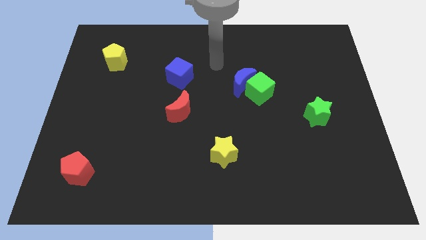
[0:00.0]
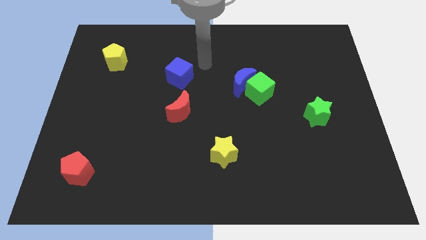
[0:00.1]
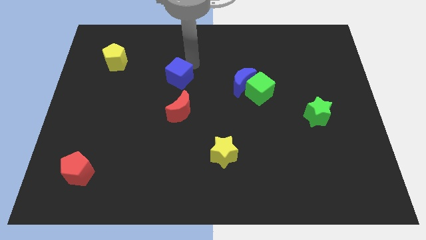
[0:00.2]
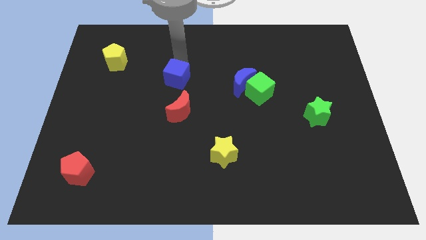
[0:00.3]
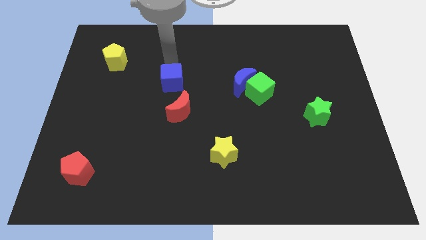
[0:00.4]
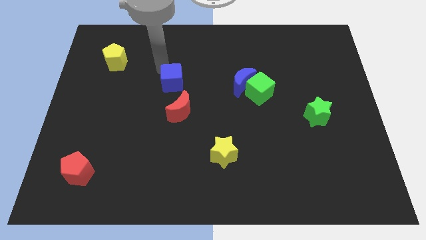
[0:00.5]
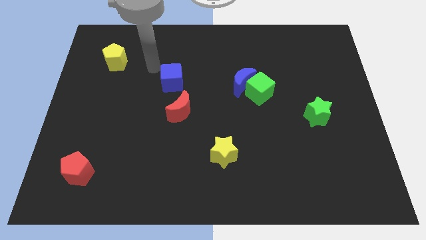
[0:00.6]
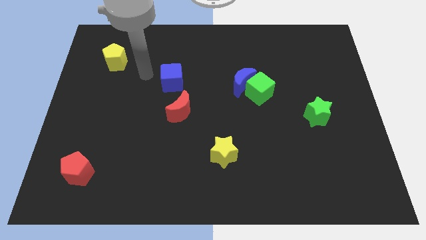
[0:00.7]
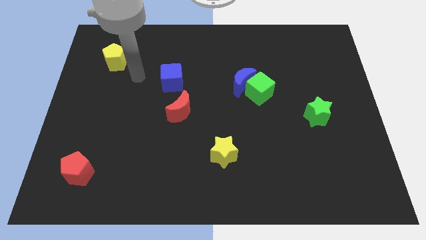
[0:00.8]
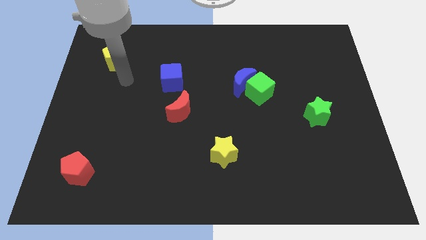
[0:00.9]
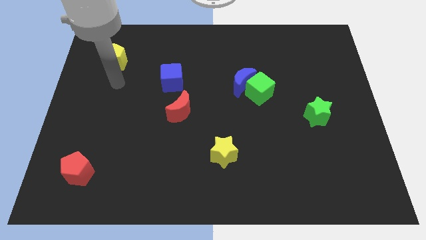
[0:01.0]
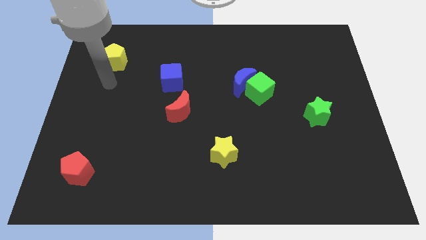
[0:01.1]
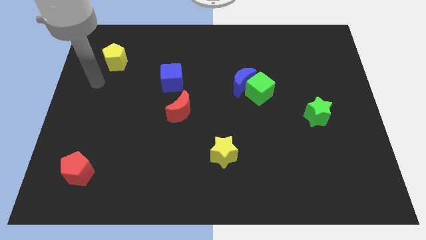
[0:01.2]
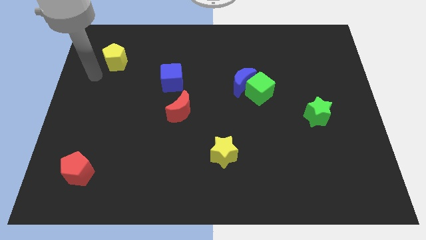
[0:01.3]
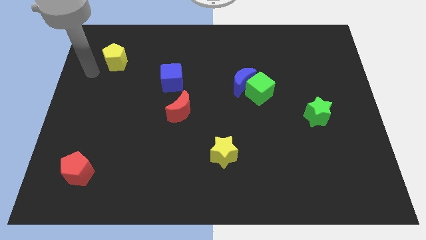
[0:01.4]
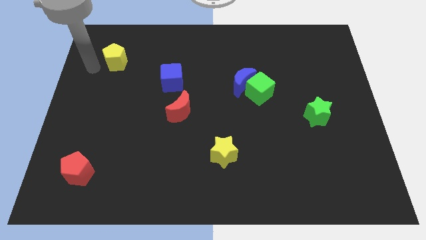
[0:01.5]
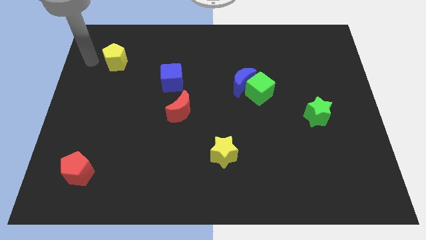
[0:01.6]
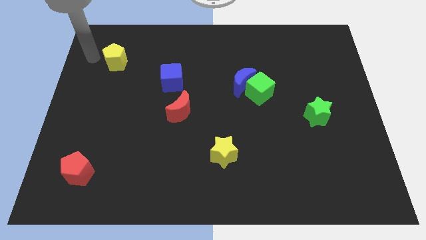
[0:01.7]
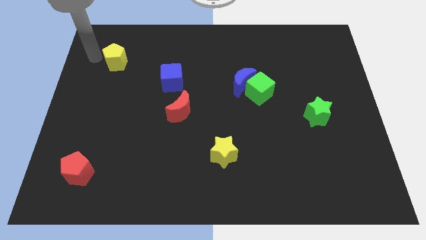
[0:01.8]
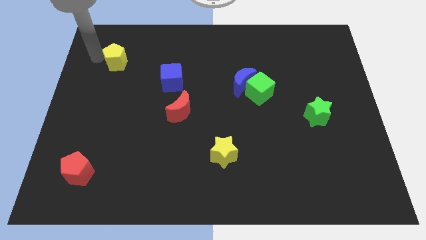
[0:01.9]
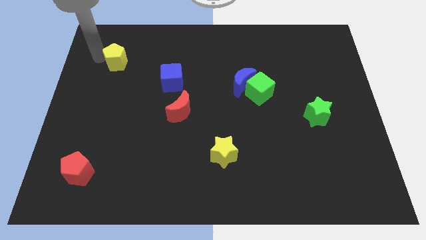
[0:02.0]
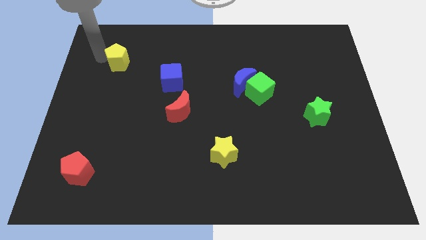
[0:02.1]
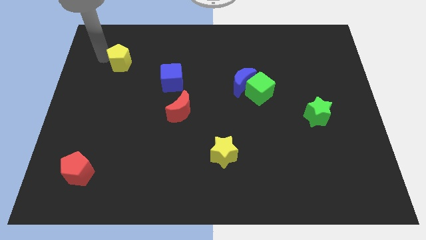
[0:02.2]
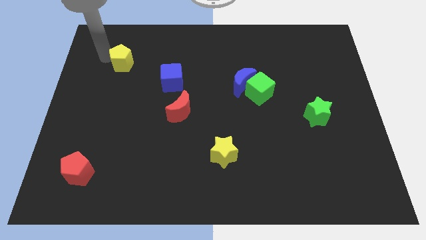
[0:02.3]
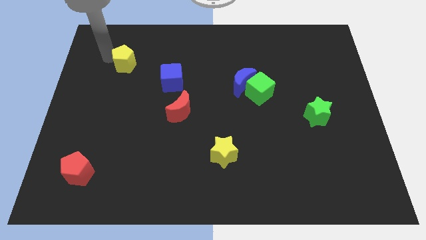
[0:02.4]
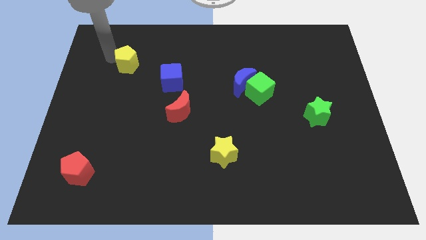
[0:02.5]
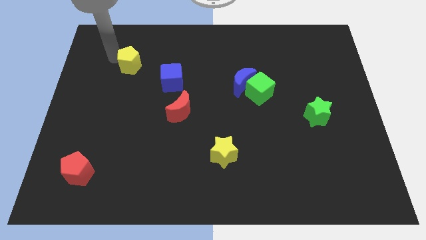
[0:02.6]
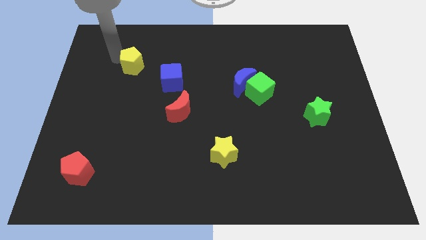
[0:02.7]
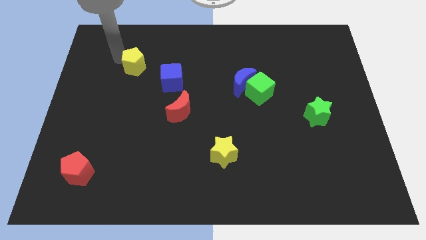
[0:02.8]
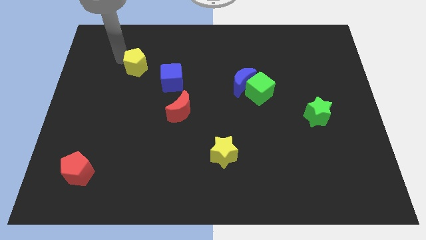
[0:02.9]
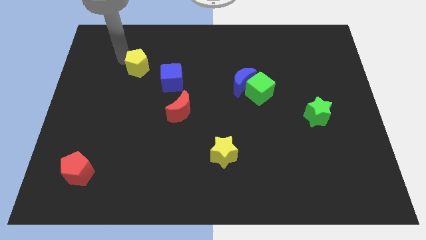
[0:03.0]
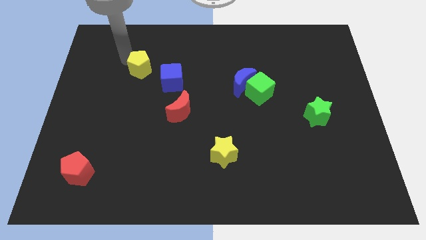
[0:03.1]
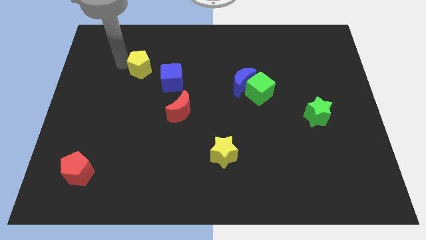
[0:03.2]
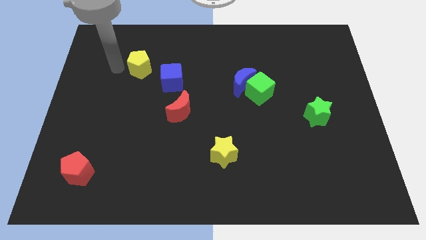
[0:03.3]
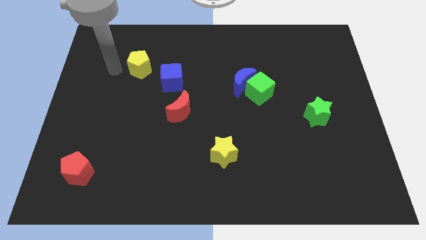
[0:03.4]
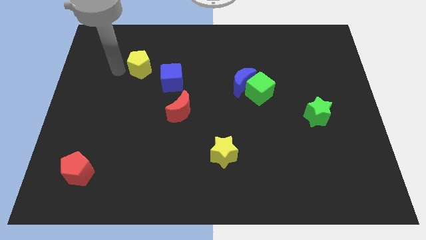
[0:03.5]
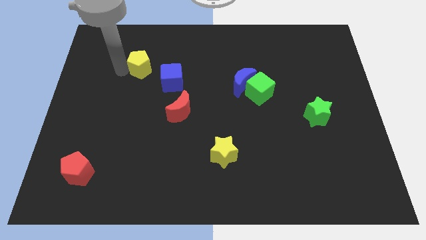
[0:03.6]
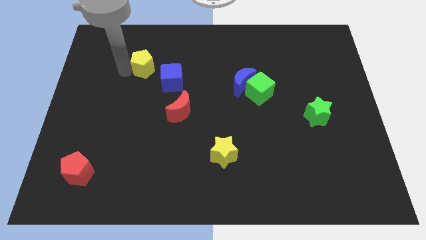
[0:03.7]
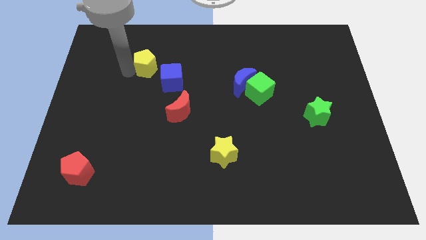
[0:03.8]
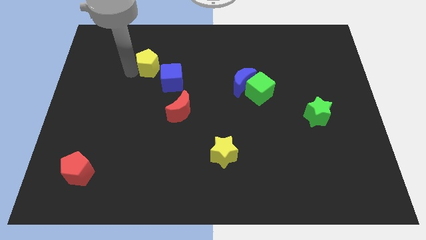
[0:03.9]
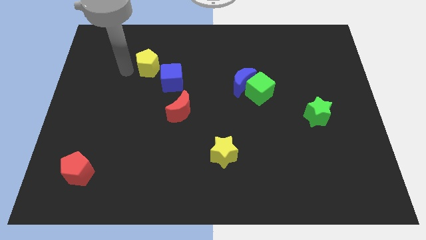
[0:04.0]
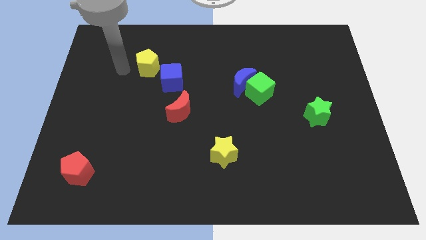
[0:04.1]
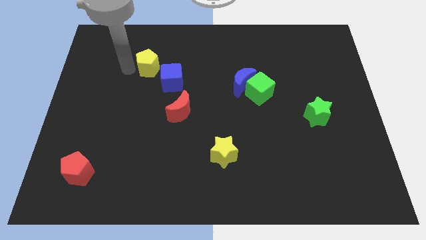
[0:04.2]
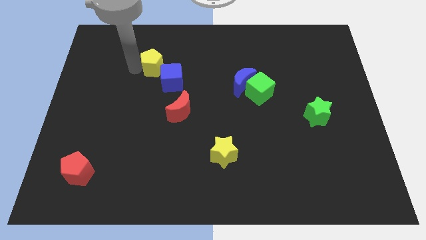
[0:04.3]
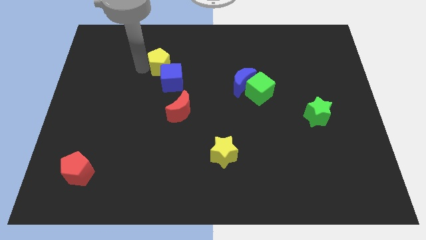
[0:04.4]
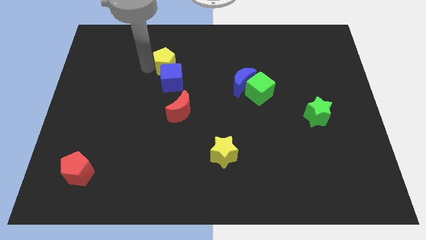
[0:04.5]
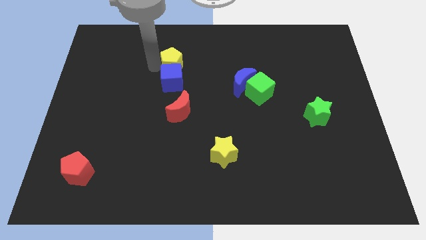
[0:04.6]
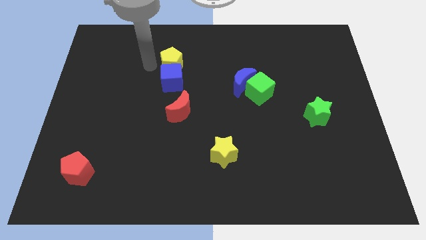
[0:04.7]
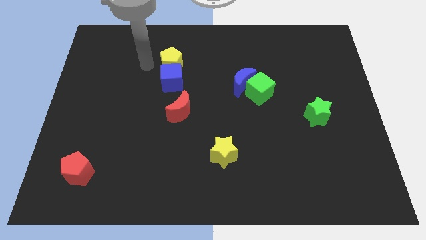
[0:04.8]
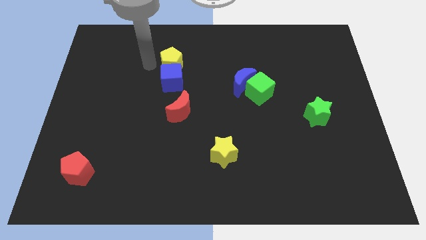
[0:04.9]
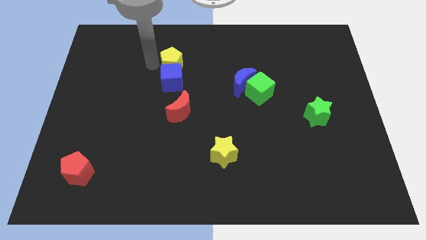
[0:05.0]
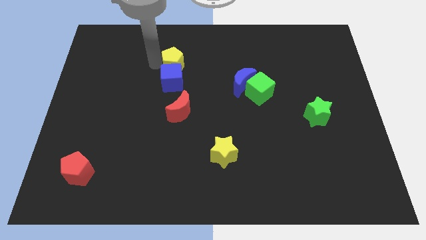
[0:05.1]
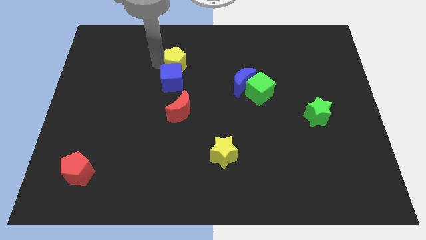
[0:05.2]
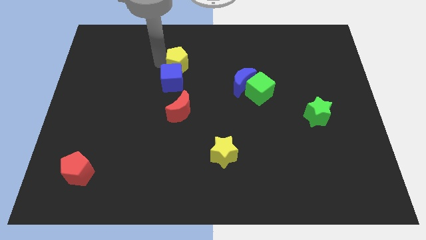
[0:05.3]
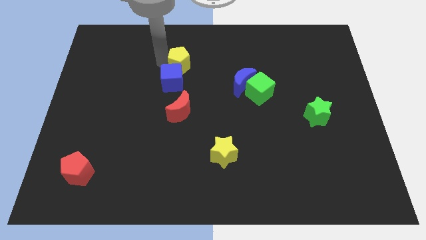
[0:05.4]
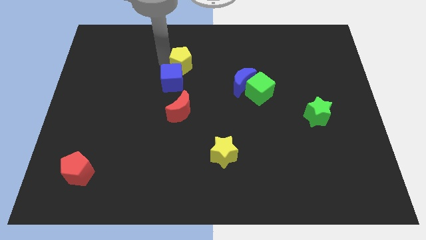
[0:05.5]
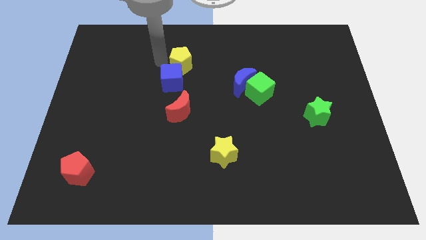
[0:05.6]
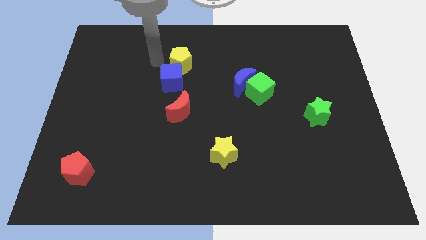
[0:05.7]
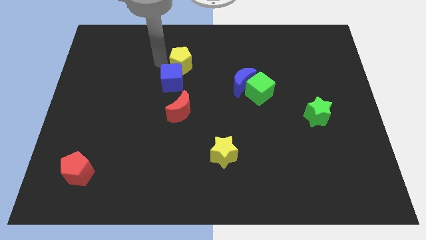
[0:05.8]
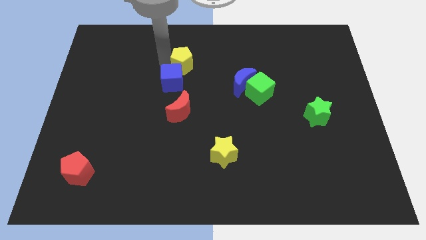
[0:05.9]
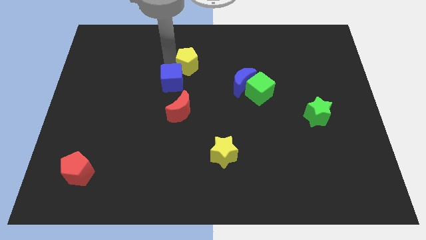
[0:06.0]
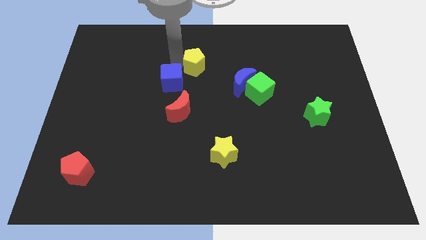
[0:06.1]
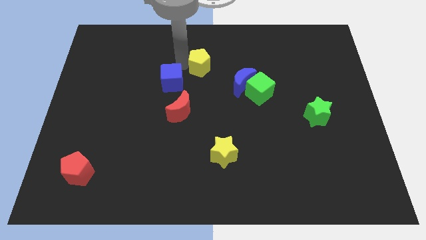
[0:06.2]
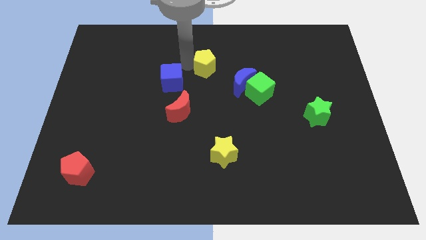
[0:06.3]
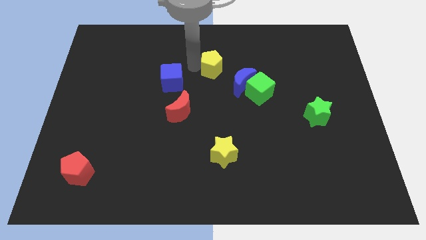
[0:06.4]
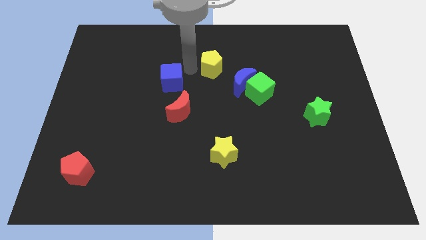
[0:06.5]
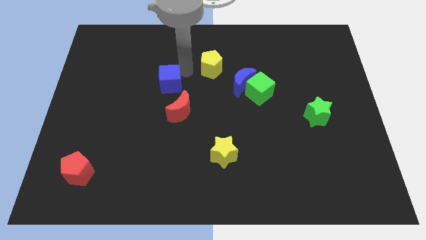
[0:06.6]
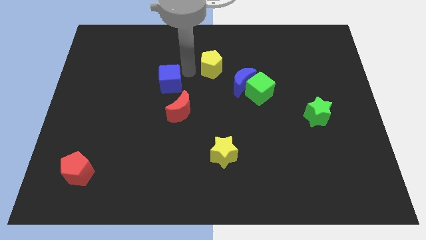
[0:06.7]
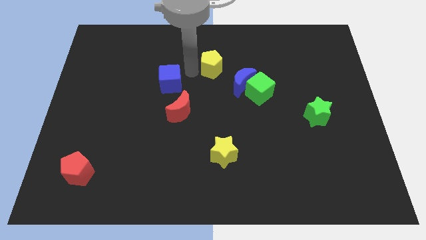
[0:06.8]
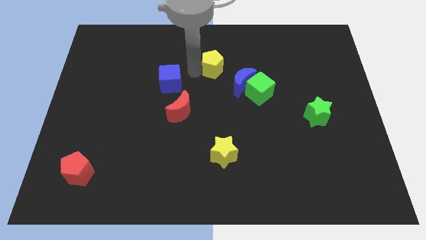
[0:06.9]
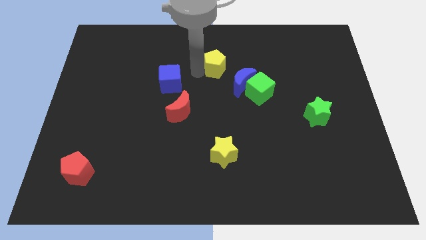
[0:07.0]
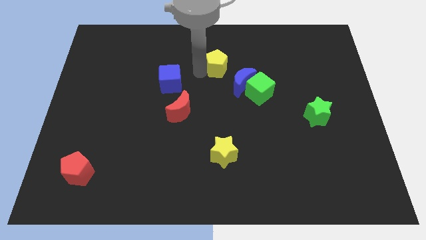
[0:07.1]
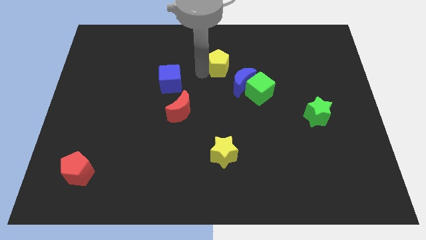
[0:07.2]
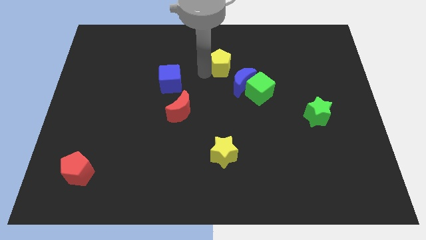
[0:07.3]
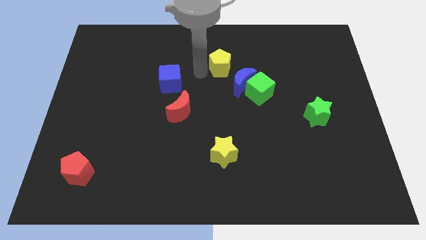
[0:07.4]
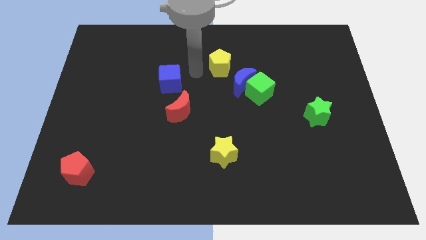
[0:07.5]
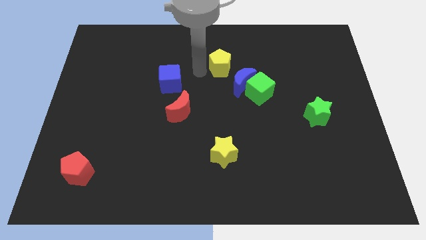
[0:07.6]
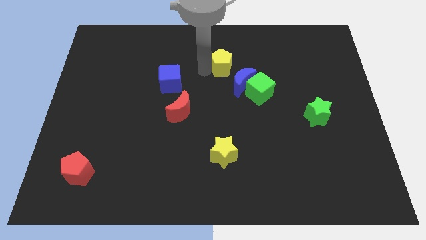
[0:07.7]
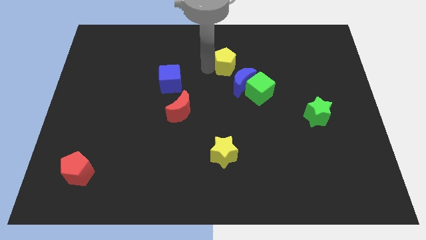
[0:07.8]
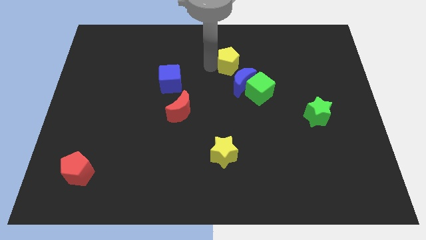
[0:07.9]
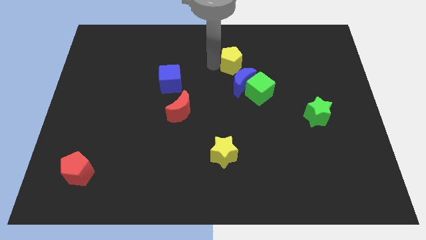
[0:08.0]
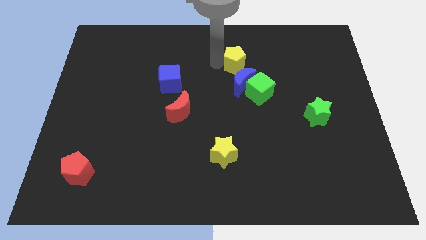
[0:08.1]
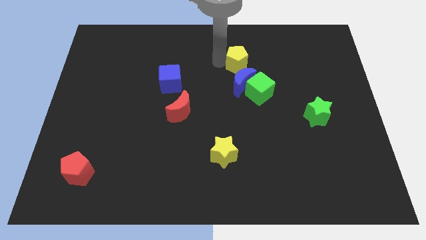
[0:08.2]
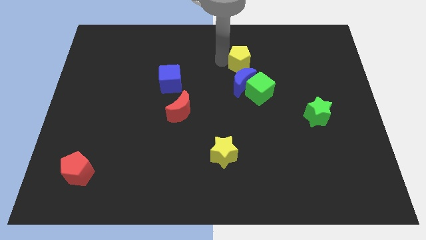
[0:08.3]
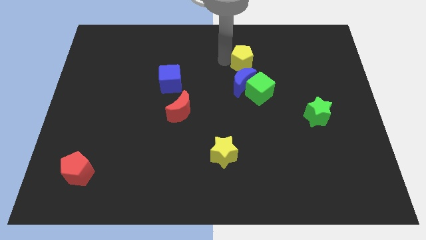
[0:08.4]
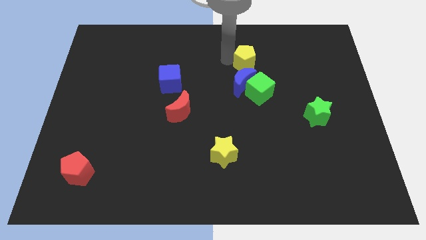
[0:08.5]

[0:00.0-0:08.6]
slide the yellow pentagon diagonally up and to the right of the blue moon
